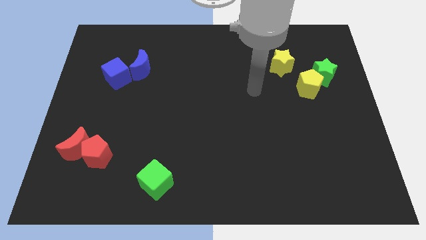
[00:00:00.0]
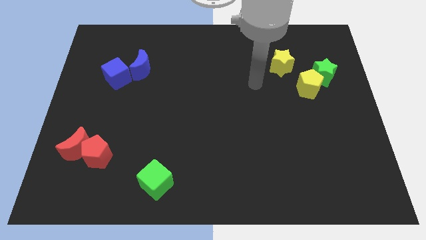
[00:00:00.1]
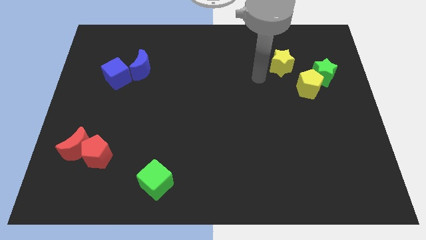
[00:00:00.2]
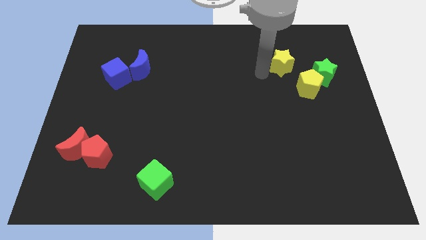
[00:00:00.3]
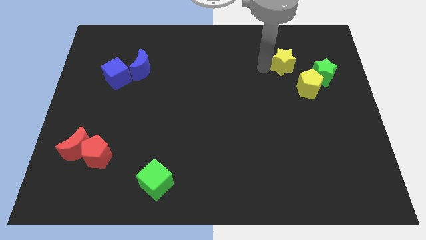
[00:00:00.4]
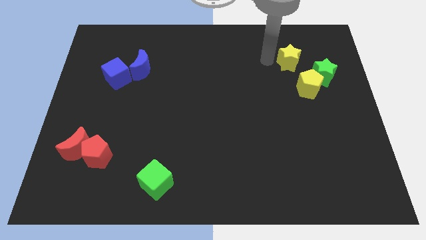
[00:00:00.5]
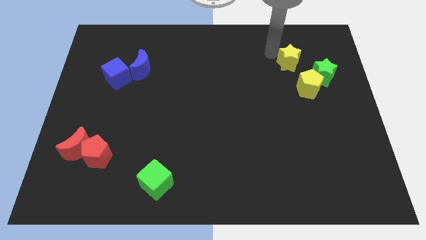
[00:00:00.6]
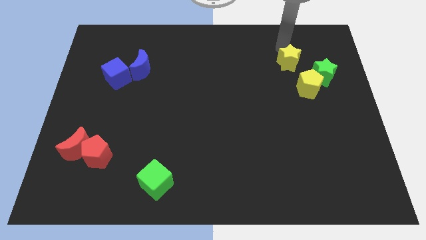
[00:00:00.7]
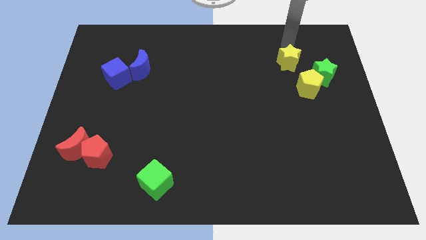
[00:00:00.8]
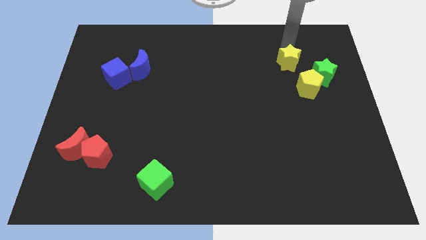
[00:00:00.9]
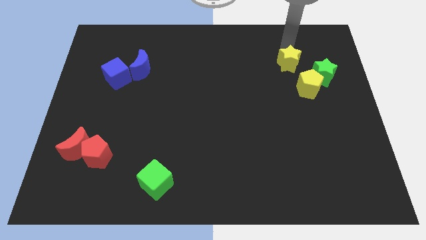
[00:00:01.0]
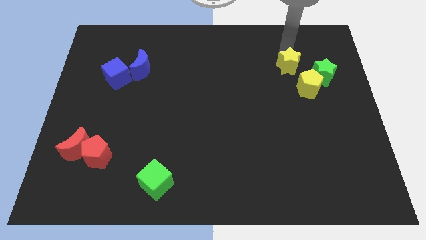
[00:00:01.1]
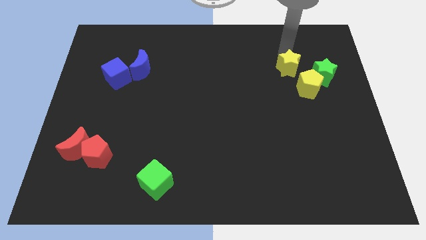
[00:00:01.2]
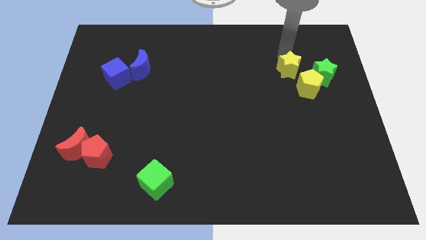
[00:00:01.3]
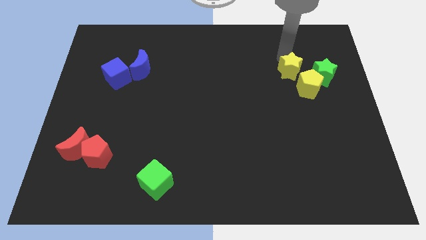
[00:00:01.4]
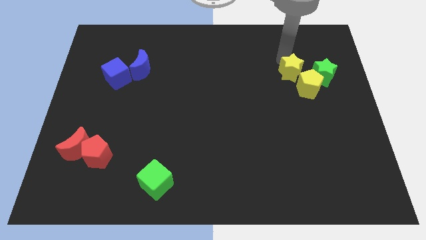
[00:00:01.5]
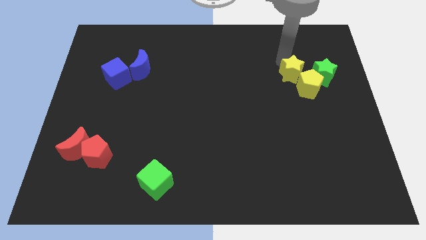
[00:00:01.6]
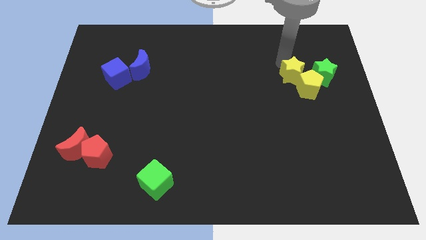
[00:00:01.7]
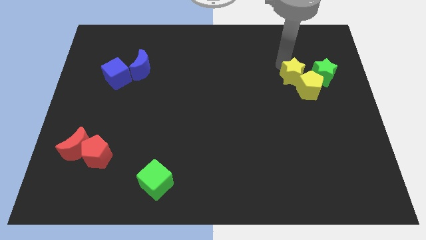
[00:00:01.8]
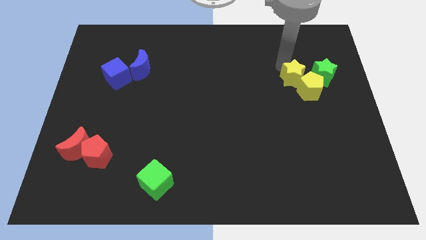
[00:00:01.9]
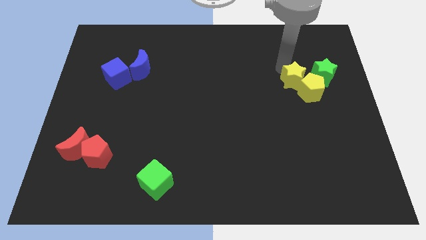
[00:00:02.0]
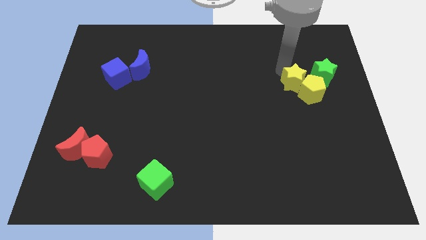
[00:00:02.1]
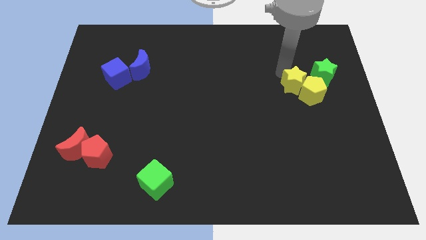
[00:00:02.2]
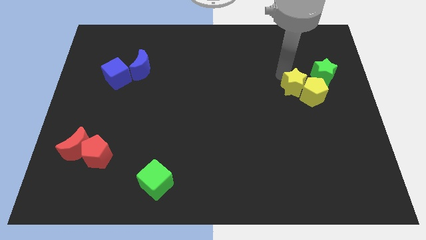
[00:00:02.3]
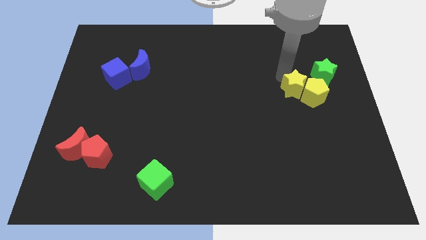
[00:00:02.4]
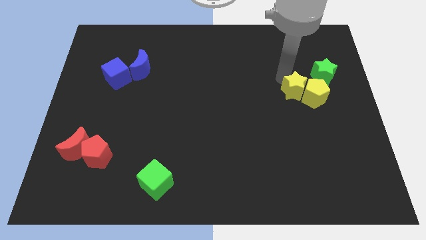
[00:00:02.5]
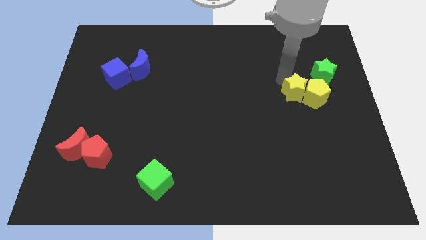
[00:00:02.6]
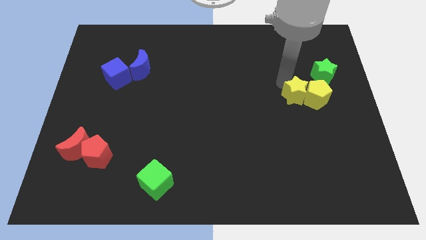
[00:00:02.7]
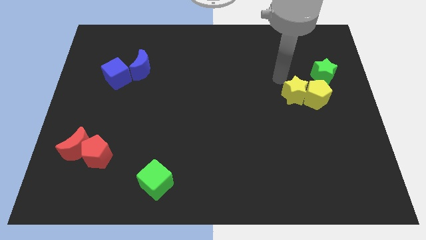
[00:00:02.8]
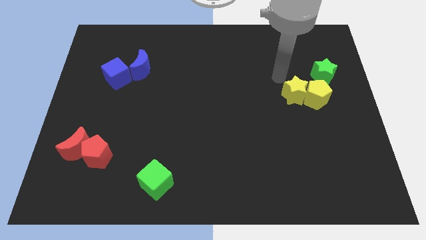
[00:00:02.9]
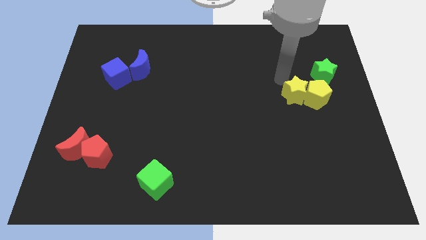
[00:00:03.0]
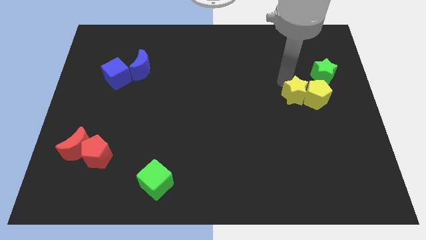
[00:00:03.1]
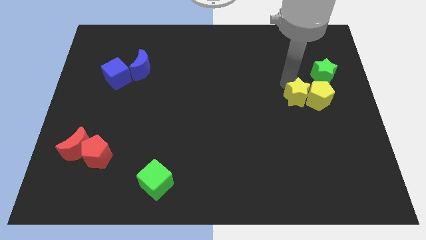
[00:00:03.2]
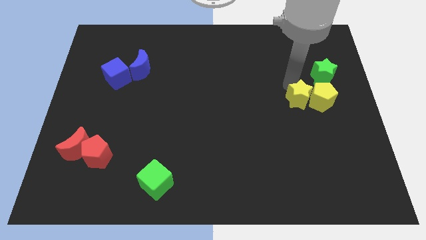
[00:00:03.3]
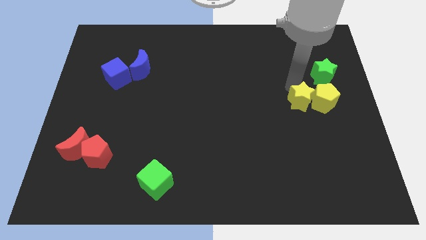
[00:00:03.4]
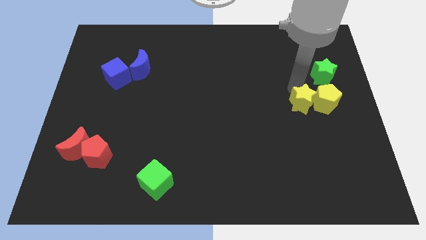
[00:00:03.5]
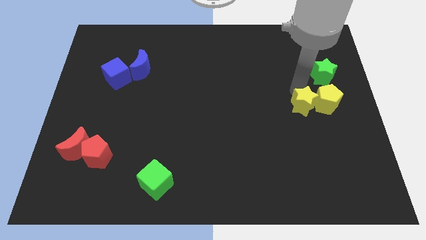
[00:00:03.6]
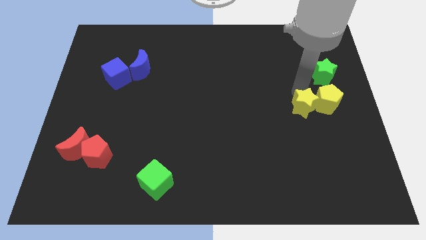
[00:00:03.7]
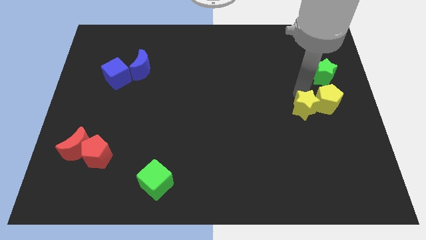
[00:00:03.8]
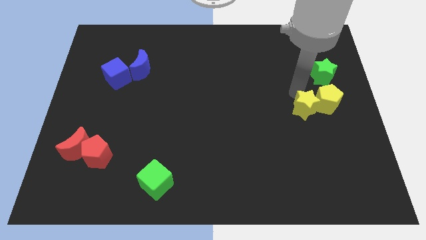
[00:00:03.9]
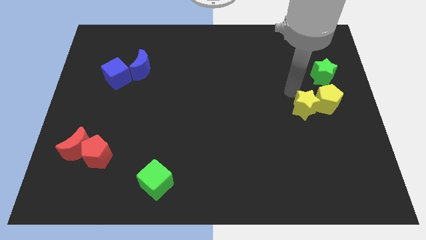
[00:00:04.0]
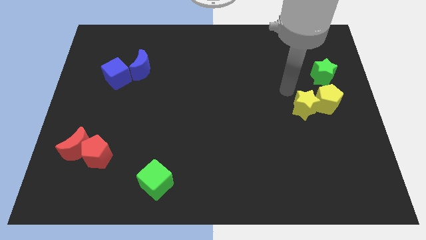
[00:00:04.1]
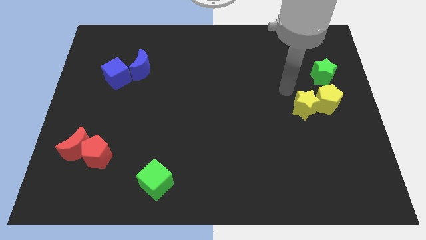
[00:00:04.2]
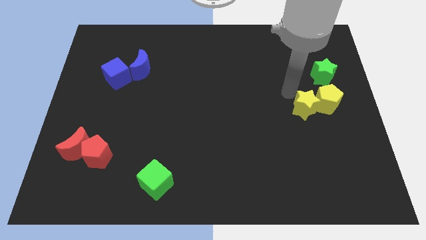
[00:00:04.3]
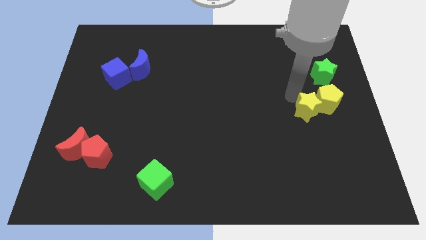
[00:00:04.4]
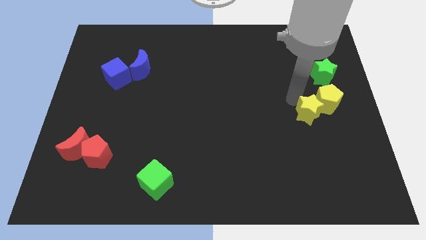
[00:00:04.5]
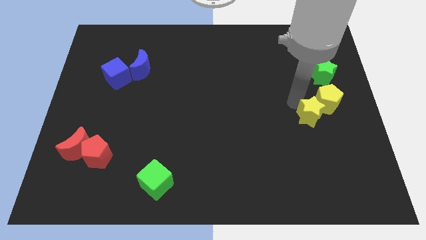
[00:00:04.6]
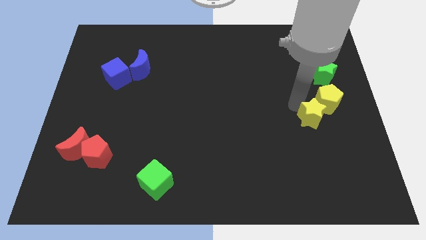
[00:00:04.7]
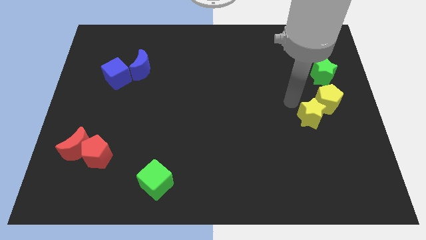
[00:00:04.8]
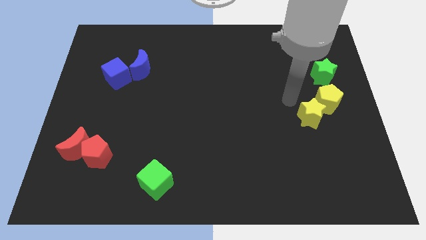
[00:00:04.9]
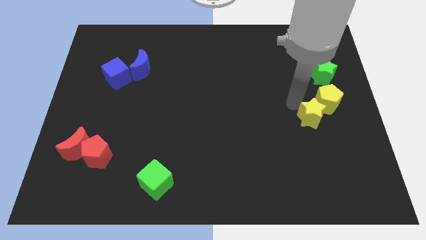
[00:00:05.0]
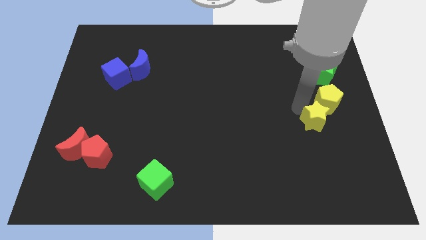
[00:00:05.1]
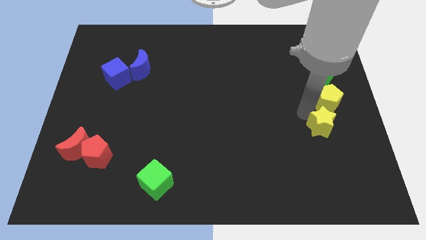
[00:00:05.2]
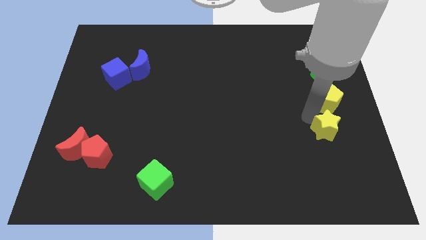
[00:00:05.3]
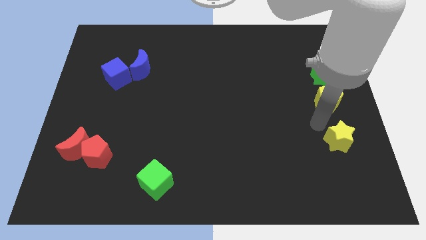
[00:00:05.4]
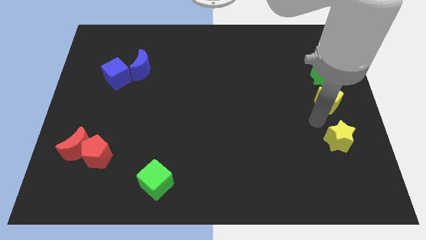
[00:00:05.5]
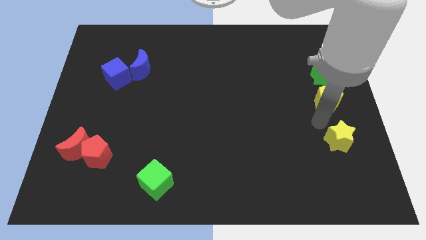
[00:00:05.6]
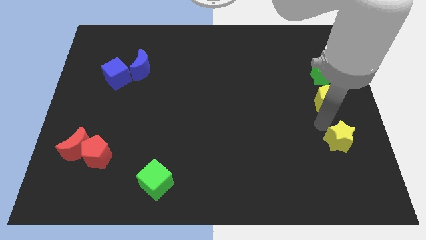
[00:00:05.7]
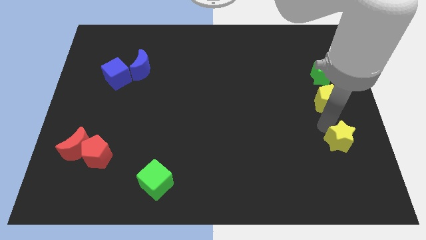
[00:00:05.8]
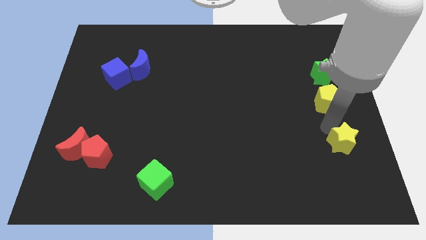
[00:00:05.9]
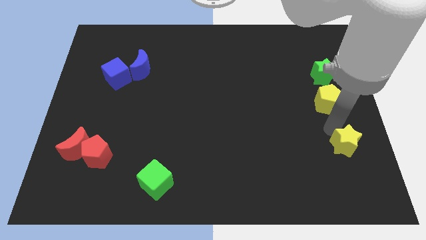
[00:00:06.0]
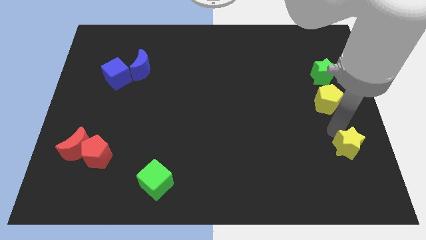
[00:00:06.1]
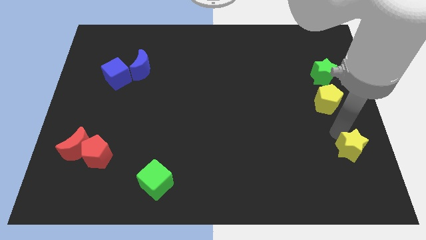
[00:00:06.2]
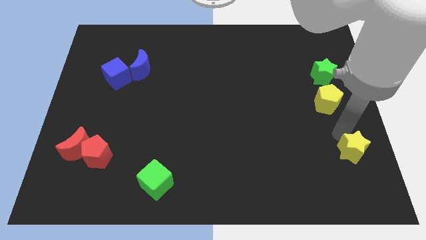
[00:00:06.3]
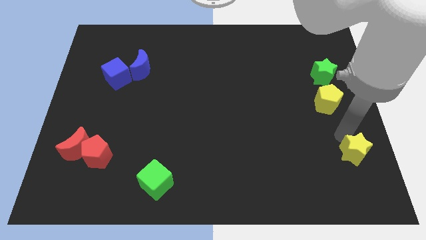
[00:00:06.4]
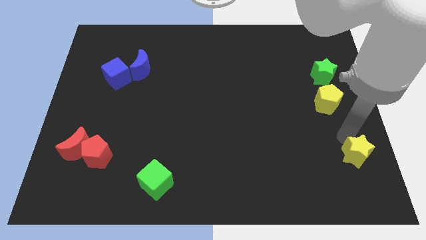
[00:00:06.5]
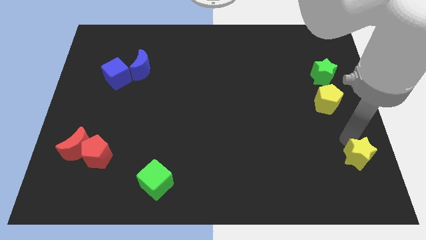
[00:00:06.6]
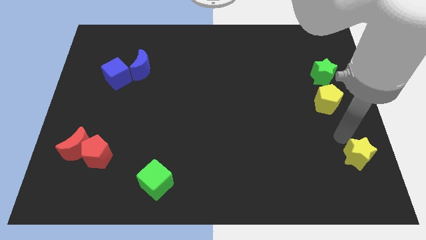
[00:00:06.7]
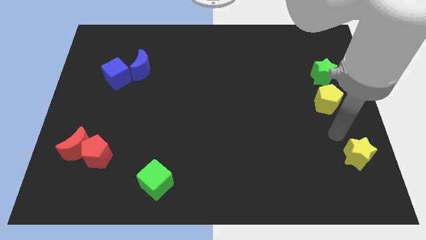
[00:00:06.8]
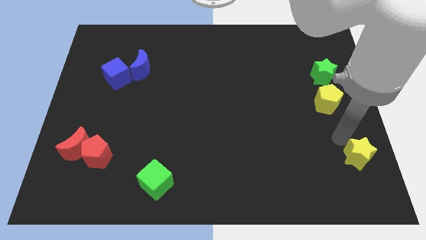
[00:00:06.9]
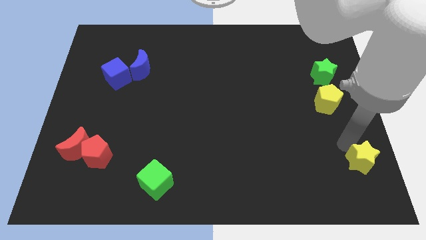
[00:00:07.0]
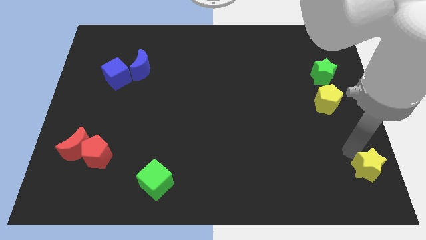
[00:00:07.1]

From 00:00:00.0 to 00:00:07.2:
push the yellow star to the bottom right

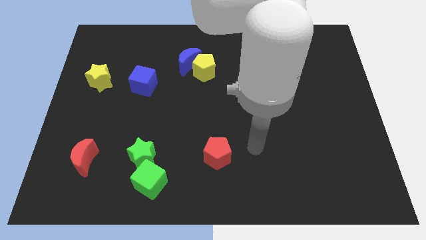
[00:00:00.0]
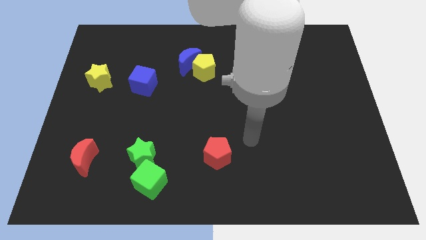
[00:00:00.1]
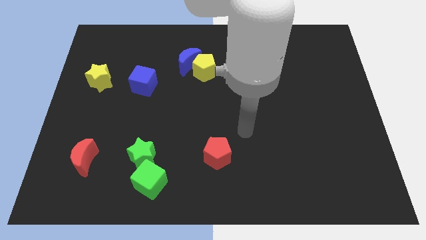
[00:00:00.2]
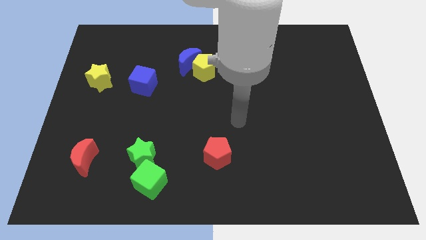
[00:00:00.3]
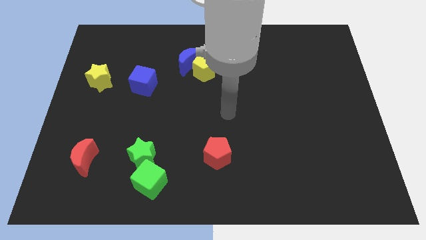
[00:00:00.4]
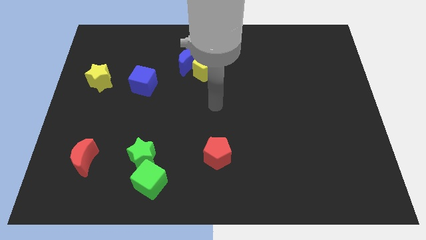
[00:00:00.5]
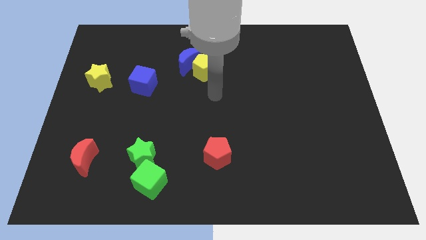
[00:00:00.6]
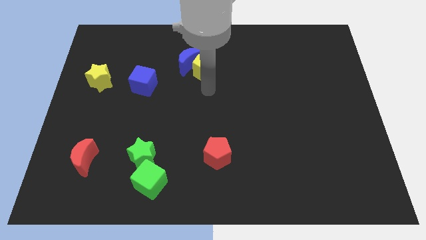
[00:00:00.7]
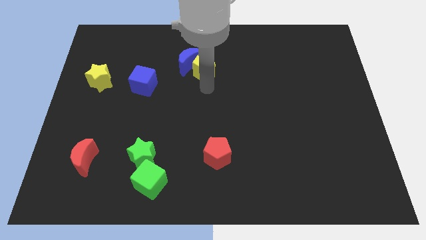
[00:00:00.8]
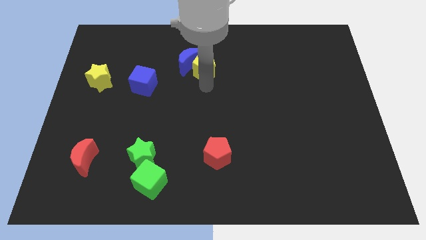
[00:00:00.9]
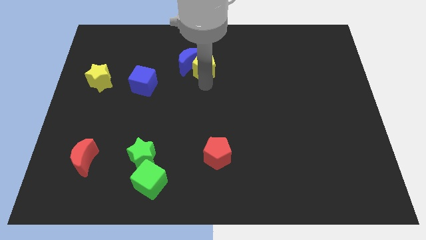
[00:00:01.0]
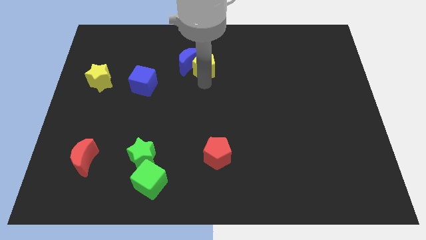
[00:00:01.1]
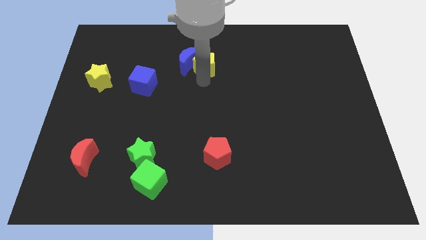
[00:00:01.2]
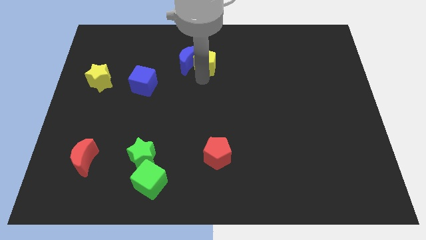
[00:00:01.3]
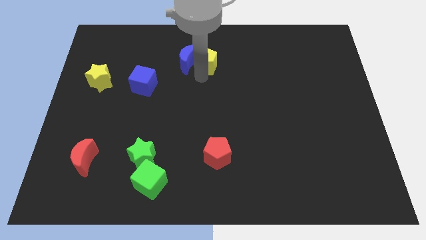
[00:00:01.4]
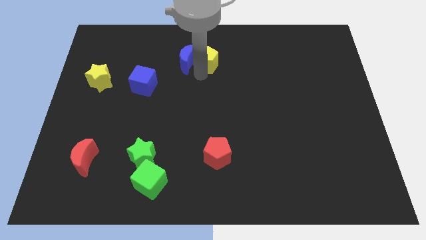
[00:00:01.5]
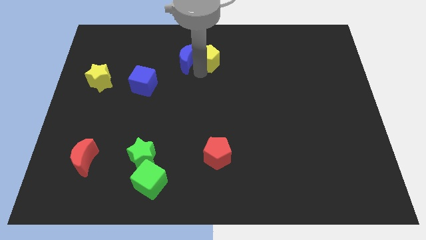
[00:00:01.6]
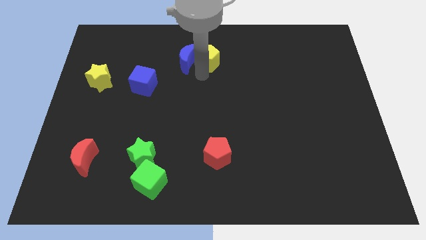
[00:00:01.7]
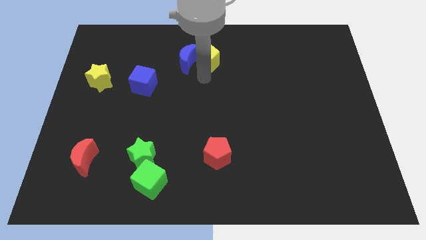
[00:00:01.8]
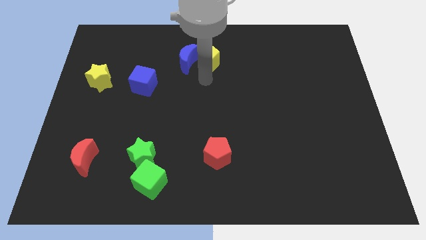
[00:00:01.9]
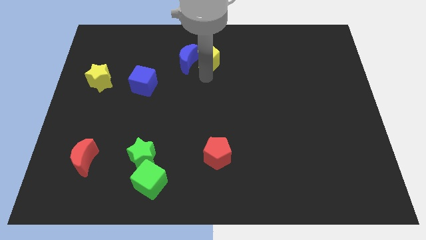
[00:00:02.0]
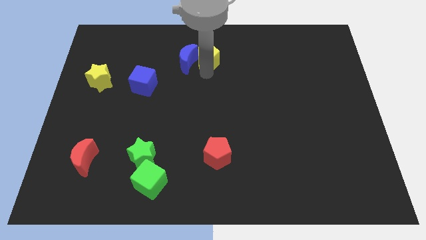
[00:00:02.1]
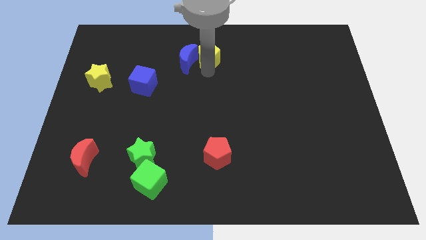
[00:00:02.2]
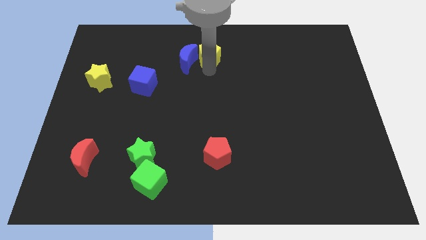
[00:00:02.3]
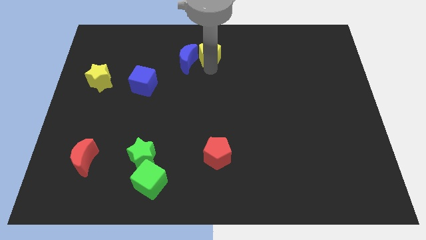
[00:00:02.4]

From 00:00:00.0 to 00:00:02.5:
slide the yellow pentagon to the top side
